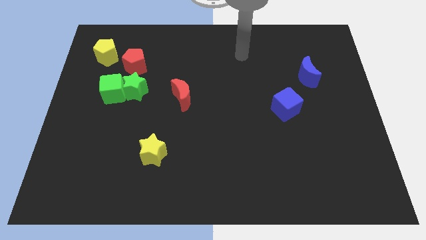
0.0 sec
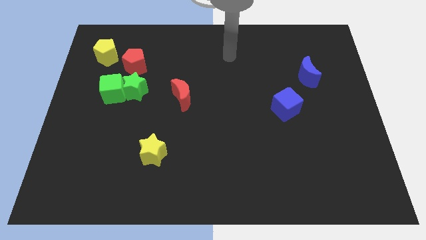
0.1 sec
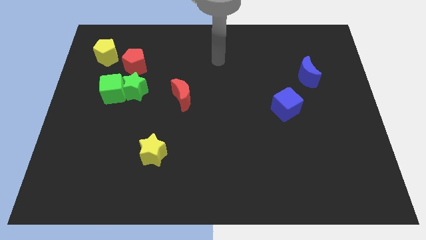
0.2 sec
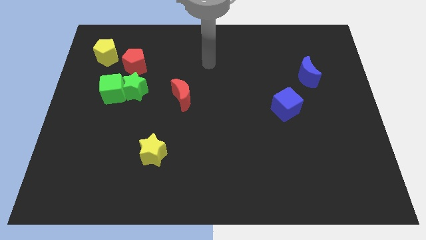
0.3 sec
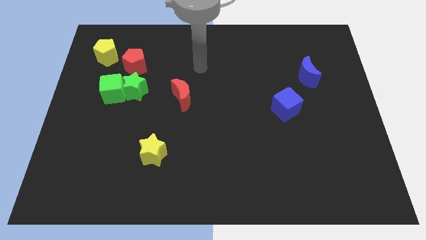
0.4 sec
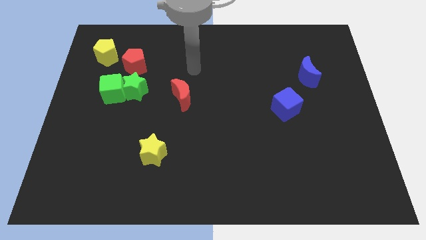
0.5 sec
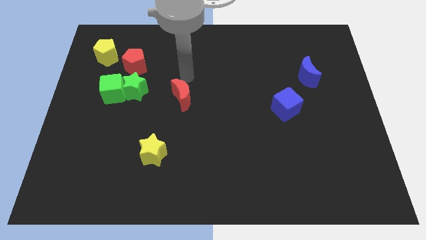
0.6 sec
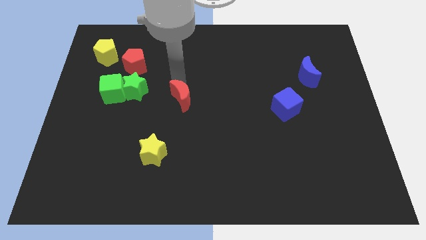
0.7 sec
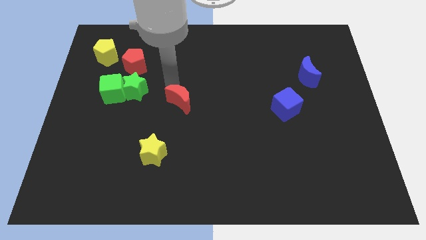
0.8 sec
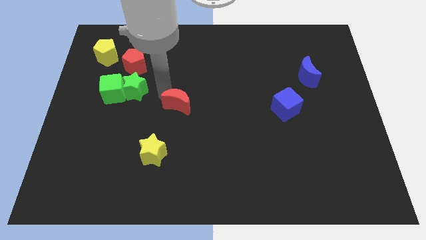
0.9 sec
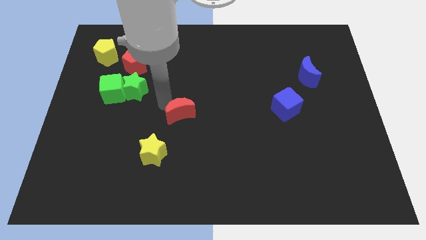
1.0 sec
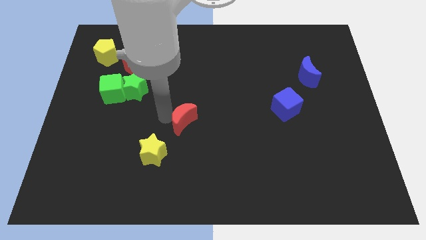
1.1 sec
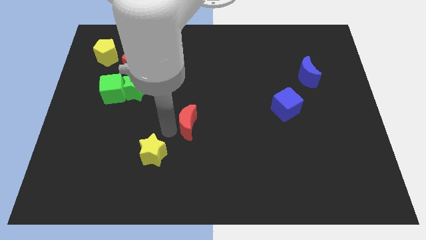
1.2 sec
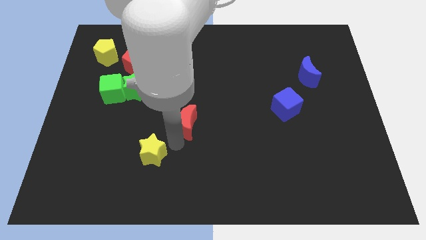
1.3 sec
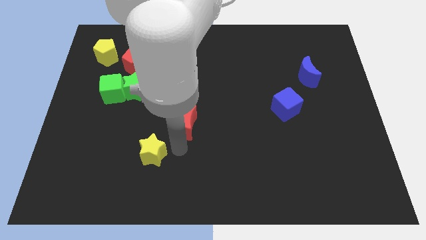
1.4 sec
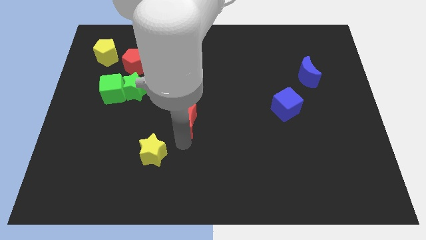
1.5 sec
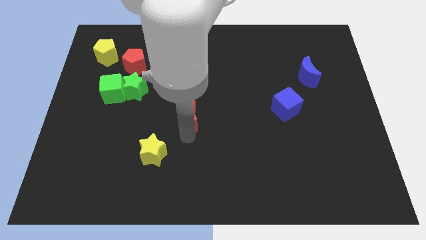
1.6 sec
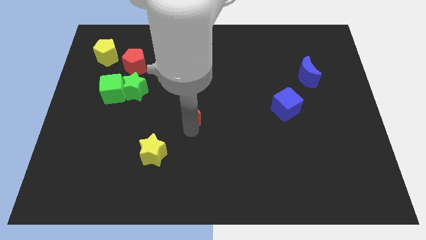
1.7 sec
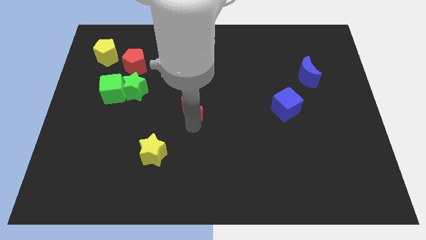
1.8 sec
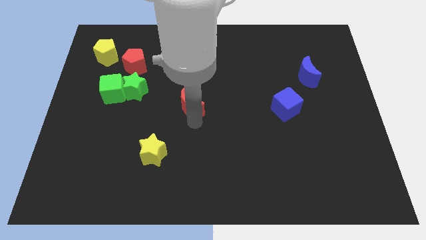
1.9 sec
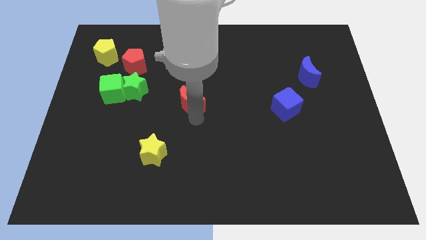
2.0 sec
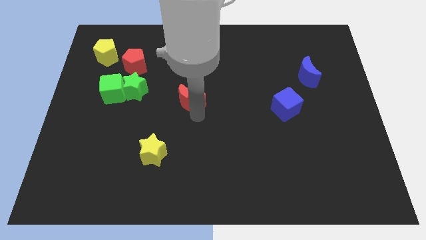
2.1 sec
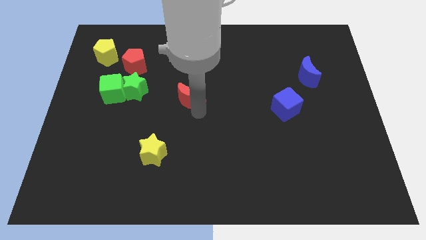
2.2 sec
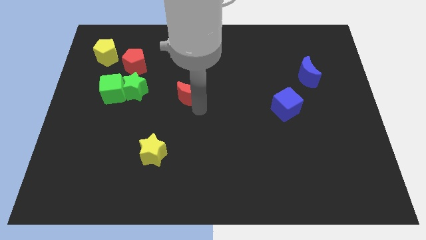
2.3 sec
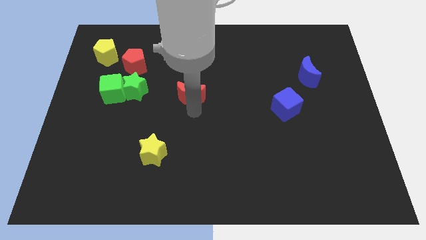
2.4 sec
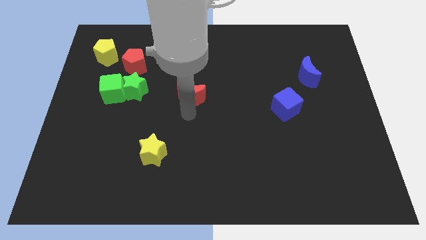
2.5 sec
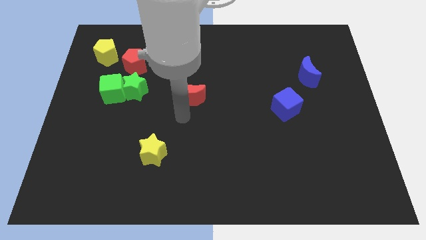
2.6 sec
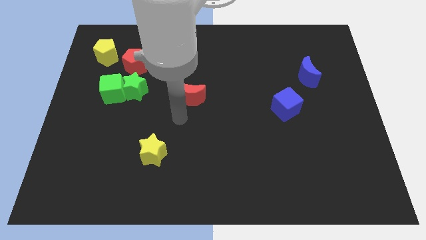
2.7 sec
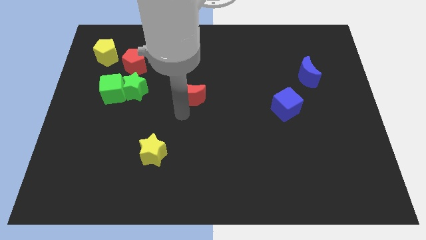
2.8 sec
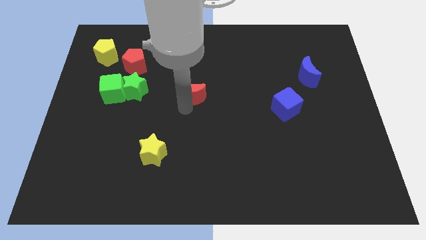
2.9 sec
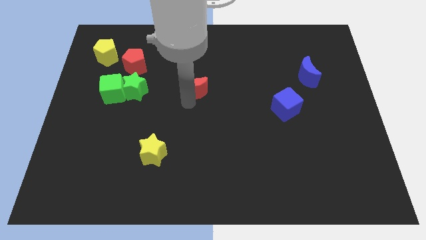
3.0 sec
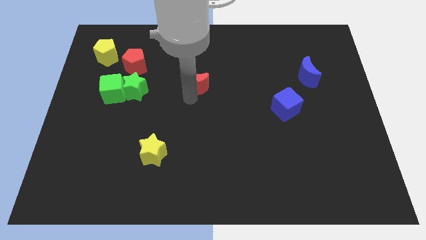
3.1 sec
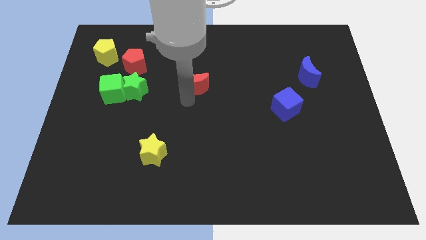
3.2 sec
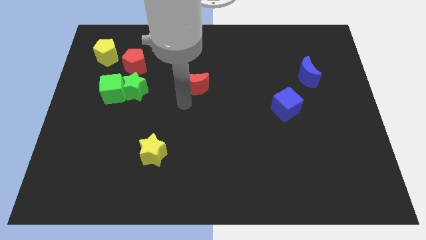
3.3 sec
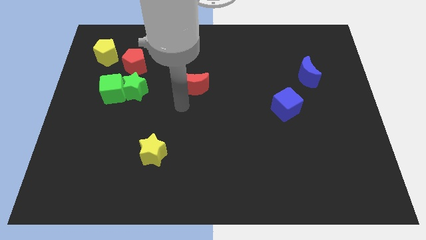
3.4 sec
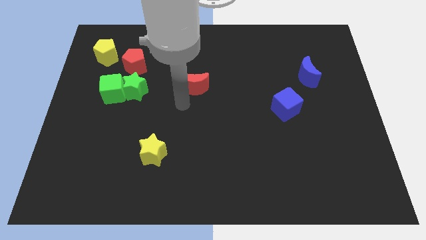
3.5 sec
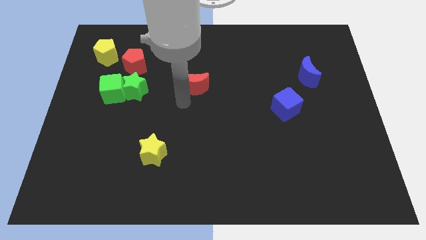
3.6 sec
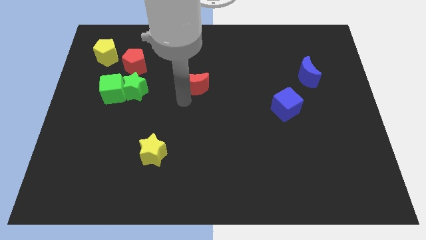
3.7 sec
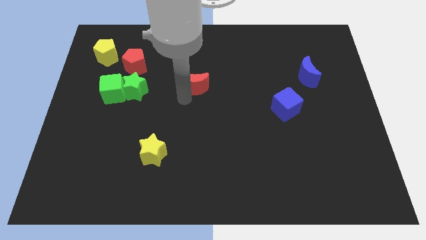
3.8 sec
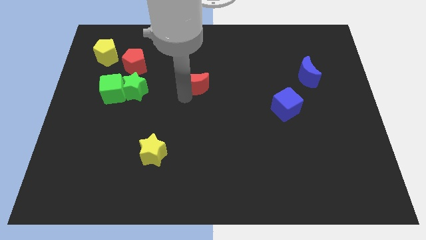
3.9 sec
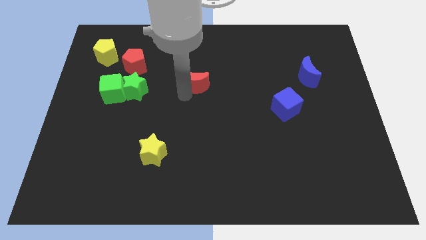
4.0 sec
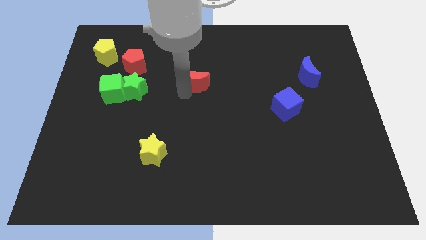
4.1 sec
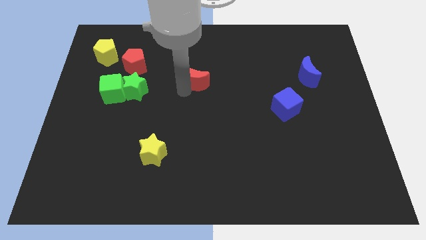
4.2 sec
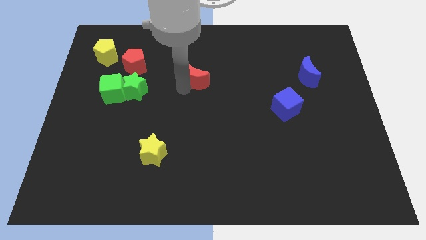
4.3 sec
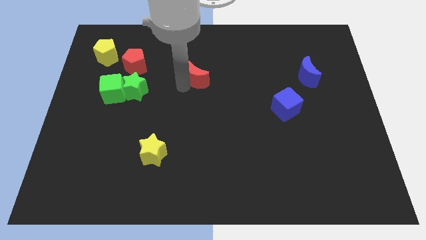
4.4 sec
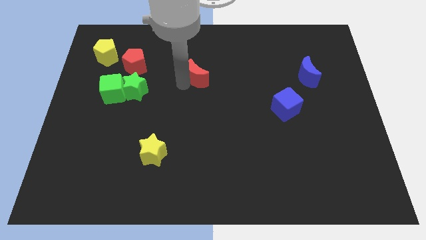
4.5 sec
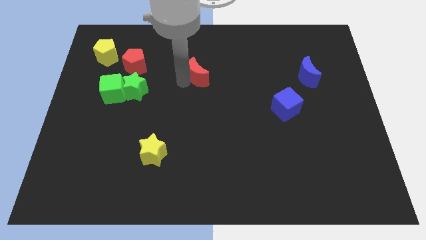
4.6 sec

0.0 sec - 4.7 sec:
slide the red moon up and to the right a bit

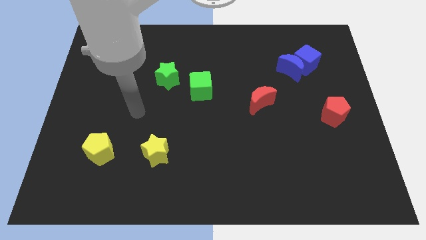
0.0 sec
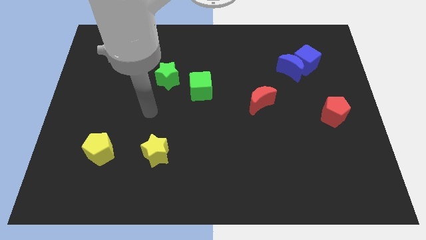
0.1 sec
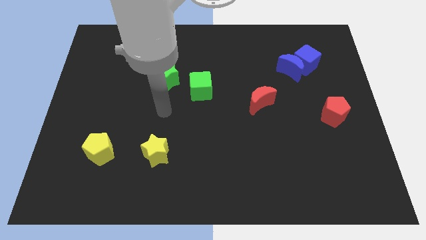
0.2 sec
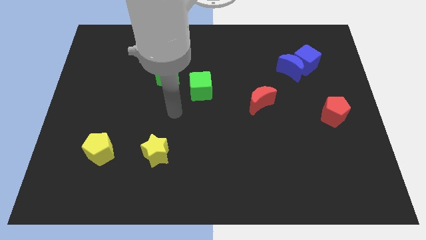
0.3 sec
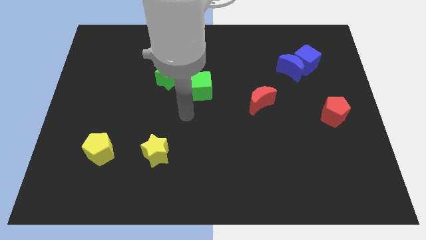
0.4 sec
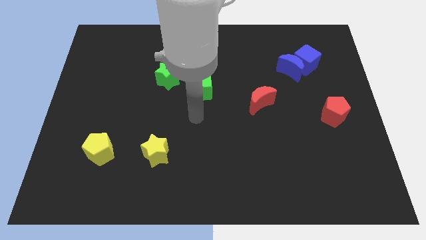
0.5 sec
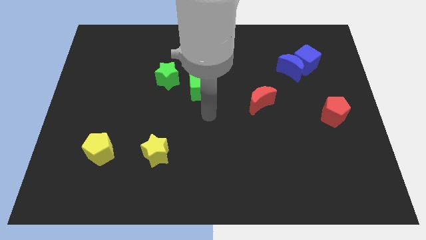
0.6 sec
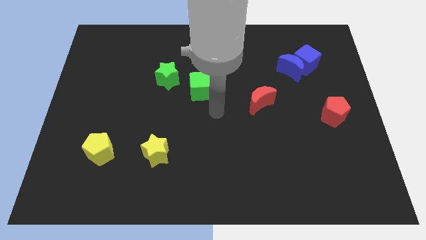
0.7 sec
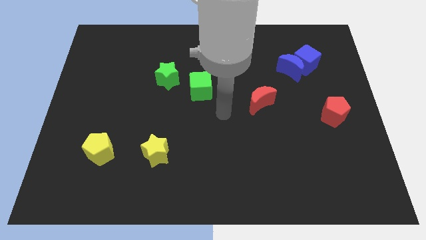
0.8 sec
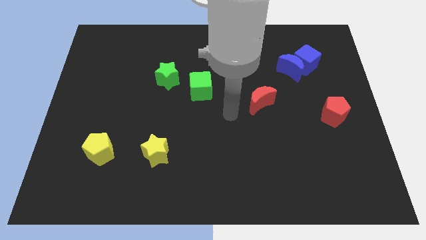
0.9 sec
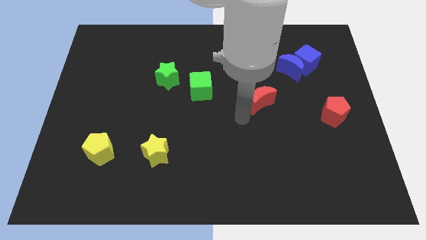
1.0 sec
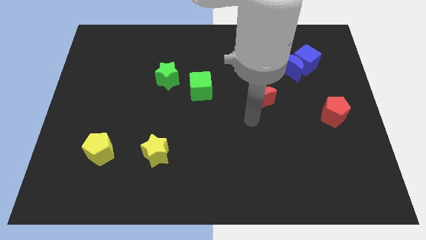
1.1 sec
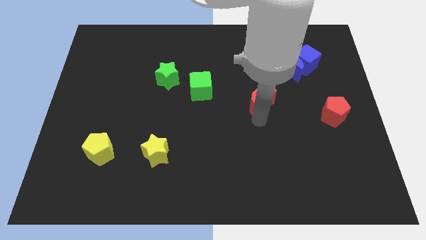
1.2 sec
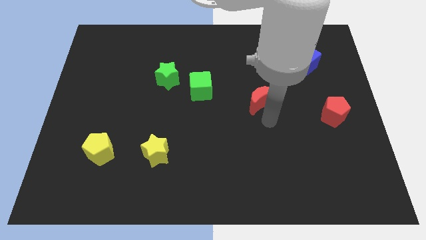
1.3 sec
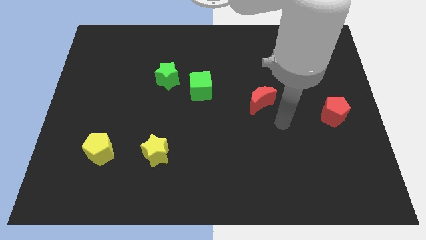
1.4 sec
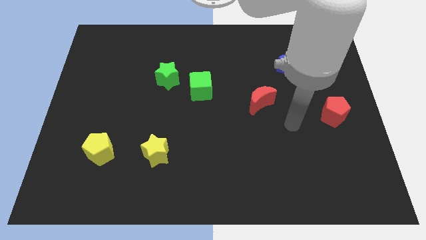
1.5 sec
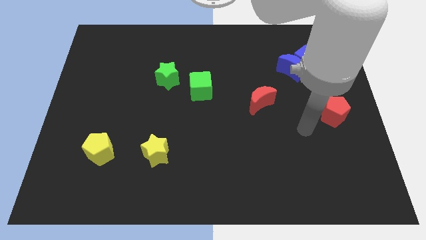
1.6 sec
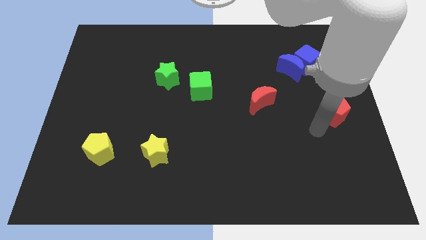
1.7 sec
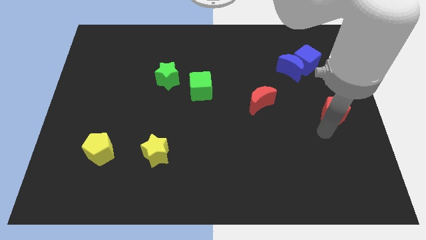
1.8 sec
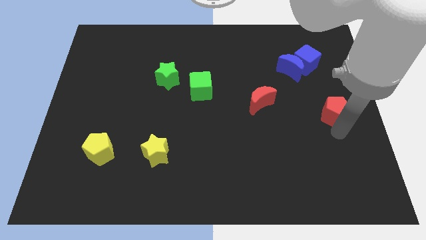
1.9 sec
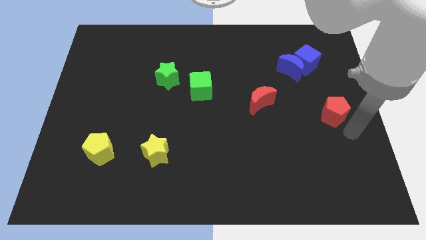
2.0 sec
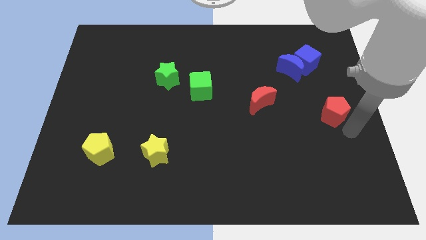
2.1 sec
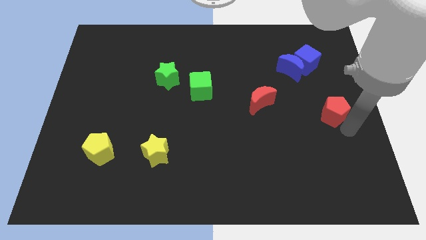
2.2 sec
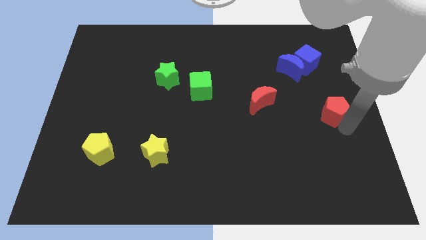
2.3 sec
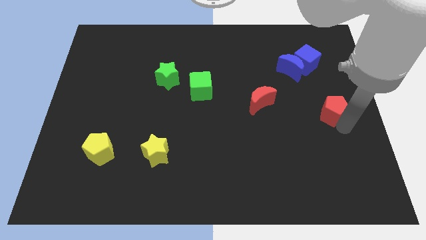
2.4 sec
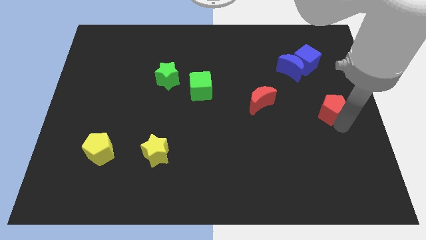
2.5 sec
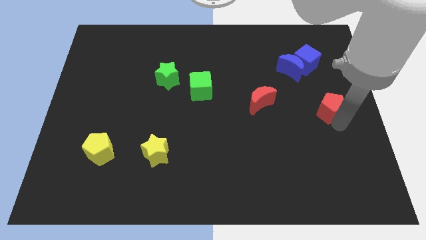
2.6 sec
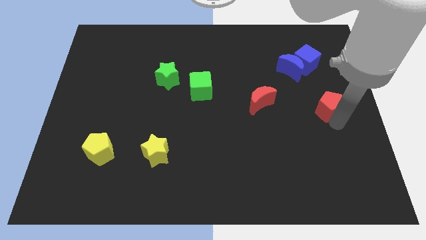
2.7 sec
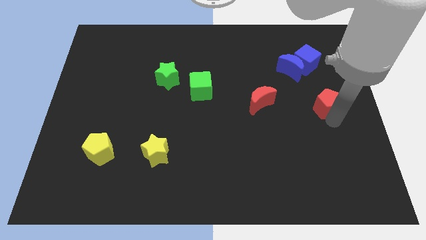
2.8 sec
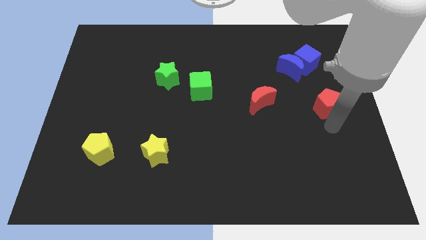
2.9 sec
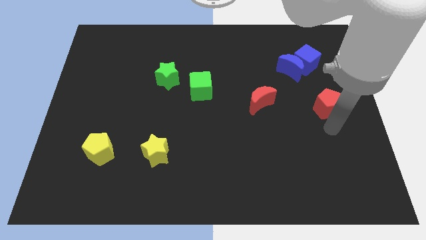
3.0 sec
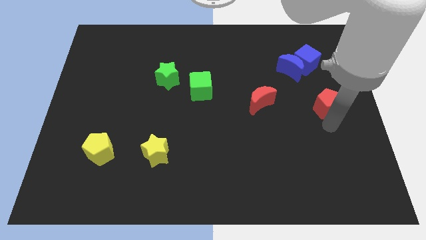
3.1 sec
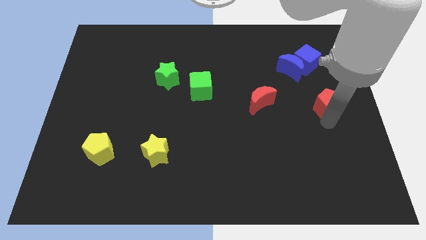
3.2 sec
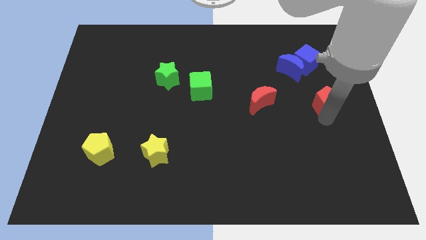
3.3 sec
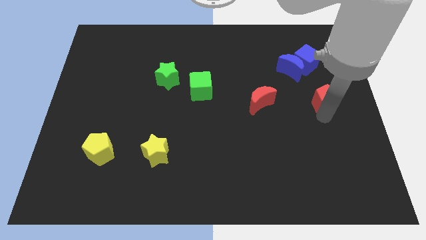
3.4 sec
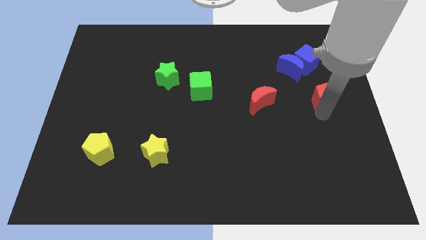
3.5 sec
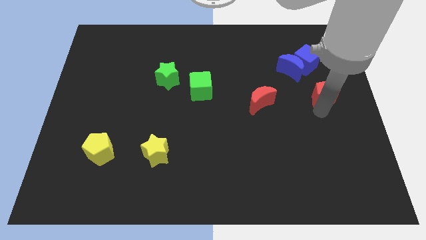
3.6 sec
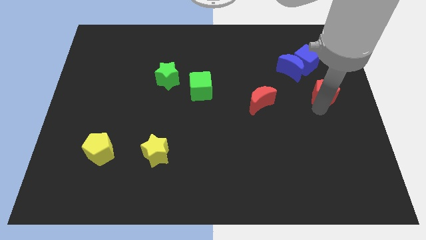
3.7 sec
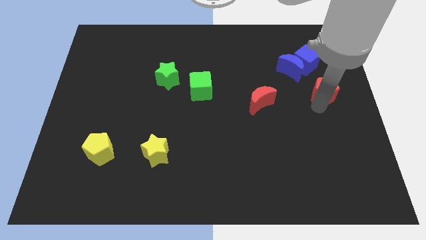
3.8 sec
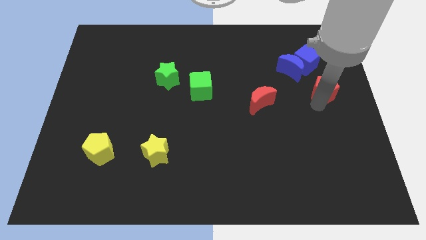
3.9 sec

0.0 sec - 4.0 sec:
slightly slide the red pentagon upwards
